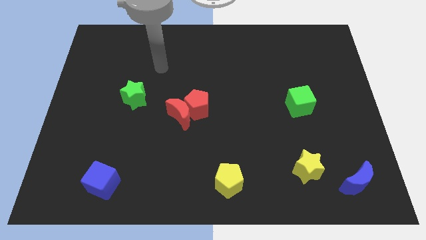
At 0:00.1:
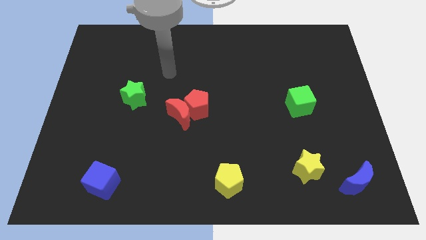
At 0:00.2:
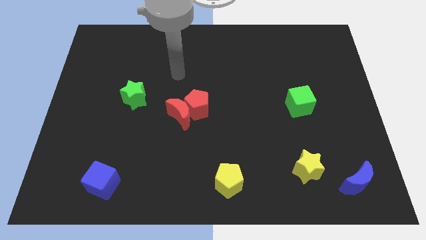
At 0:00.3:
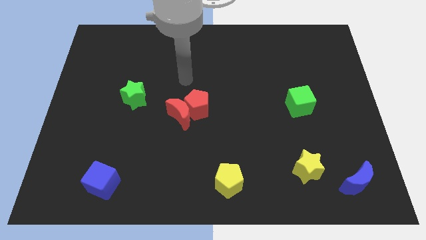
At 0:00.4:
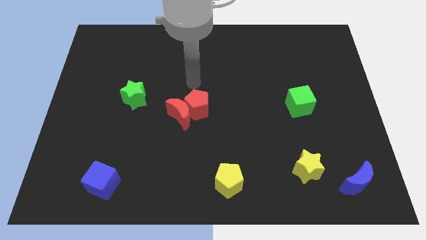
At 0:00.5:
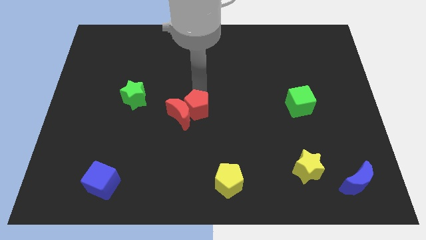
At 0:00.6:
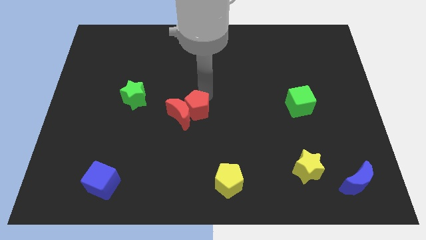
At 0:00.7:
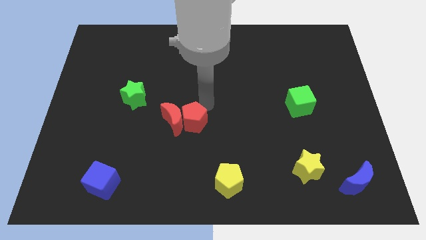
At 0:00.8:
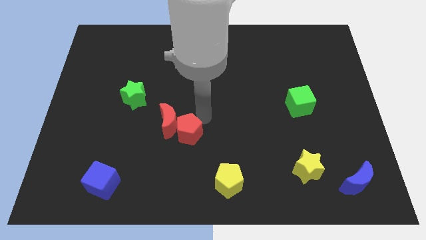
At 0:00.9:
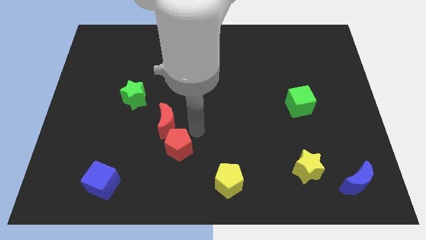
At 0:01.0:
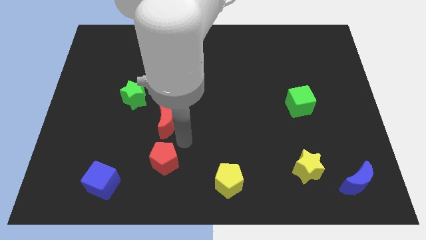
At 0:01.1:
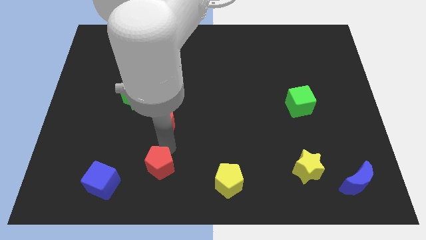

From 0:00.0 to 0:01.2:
separate the red moon from the red pentagon

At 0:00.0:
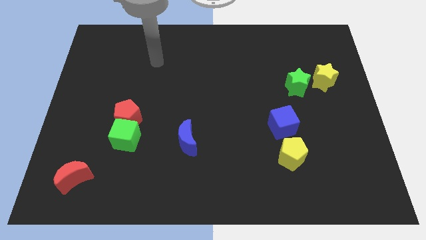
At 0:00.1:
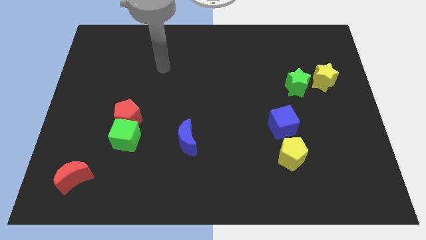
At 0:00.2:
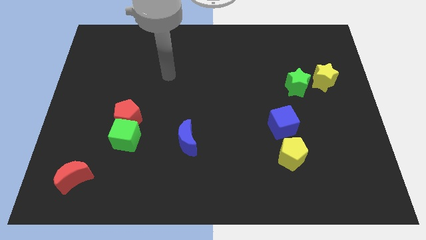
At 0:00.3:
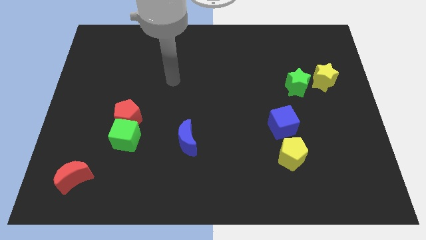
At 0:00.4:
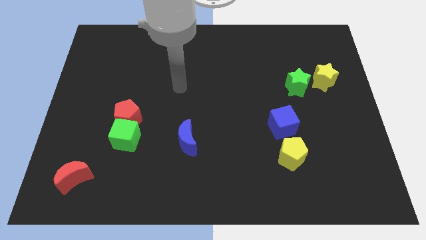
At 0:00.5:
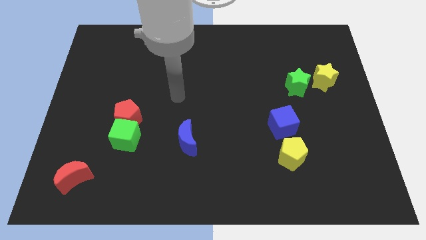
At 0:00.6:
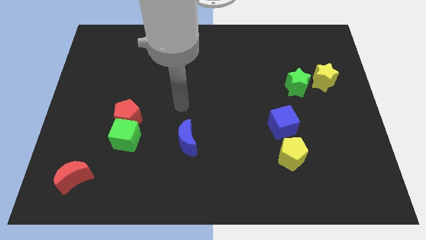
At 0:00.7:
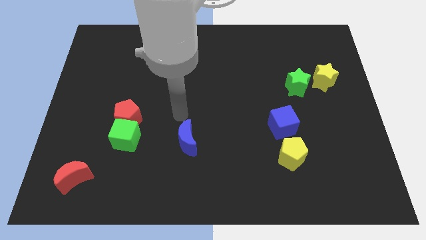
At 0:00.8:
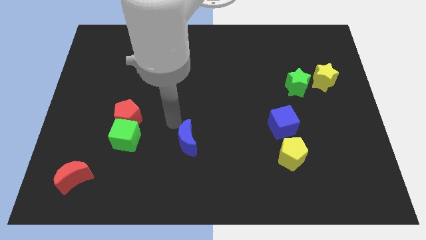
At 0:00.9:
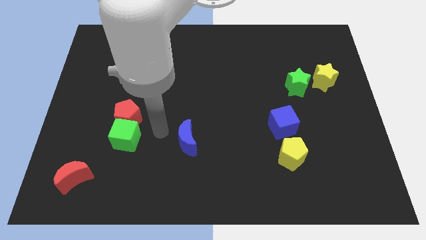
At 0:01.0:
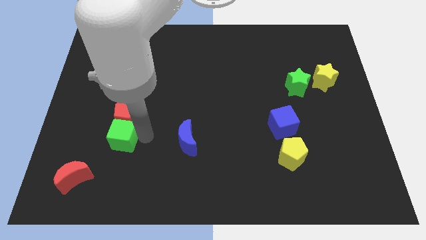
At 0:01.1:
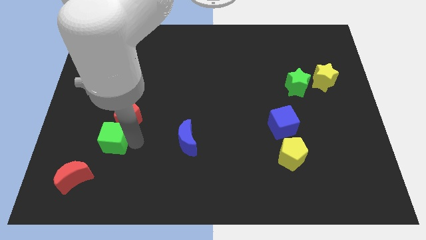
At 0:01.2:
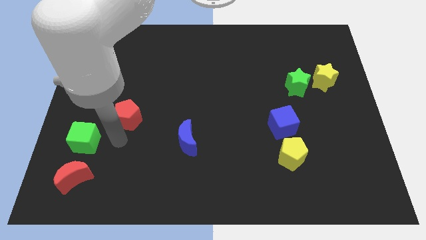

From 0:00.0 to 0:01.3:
separate the red pentagon from the green cube

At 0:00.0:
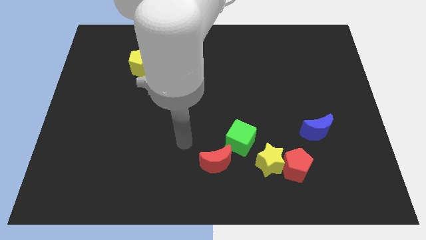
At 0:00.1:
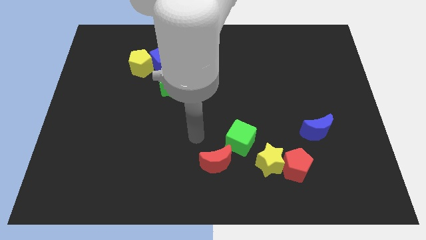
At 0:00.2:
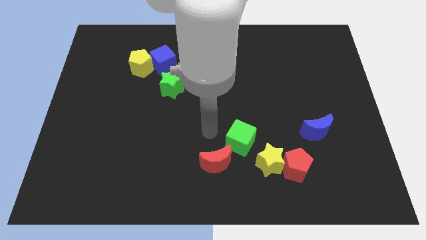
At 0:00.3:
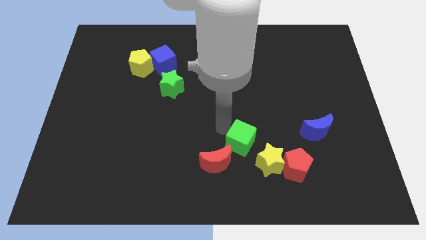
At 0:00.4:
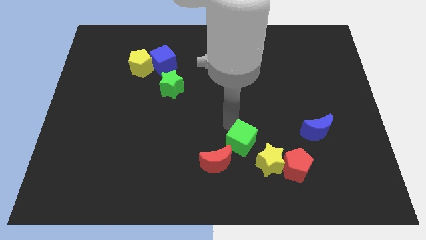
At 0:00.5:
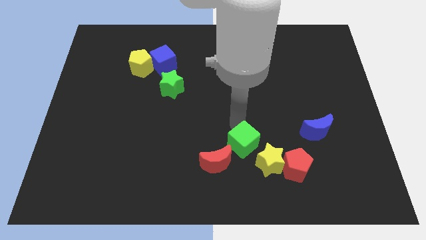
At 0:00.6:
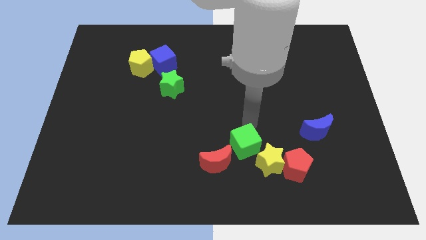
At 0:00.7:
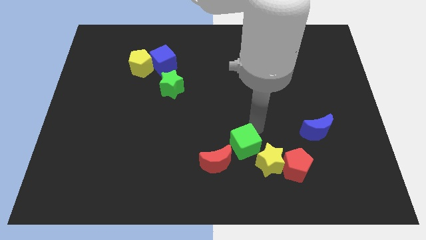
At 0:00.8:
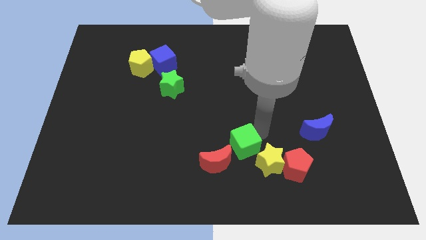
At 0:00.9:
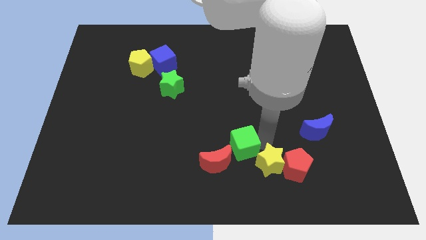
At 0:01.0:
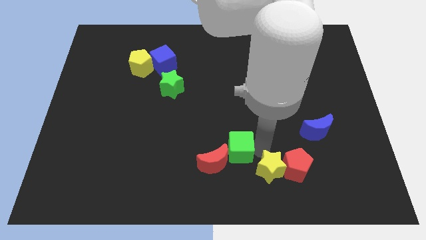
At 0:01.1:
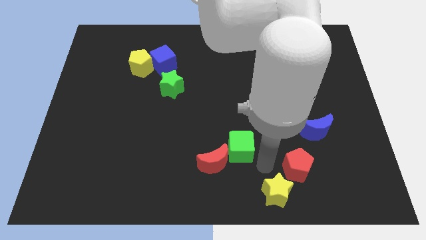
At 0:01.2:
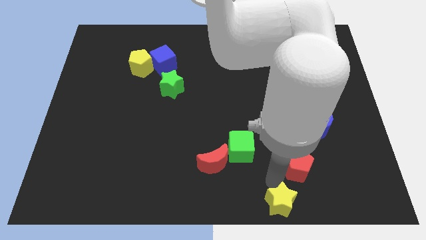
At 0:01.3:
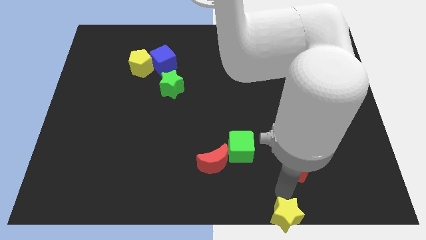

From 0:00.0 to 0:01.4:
separate the red pentagon from the yellow star

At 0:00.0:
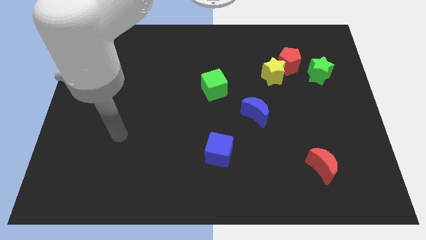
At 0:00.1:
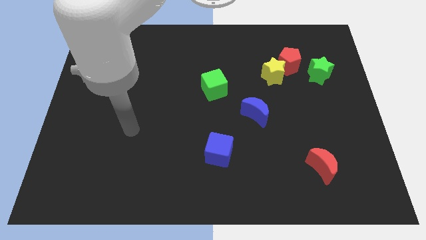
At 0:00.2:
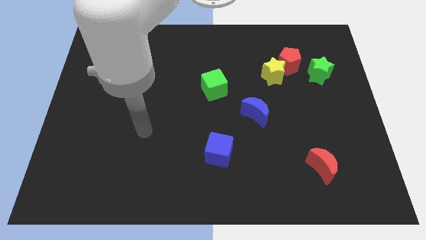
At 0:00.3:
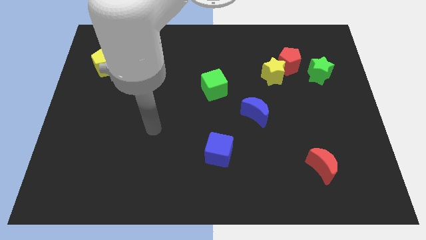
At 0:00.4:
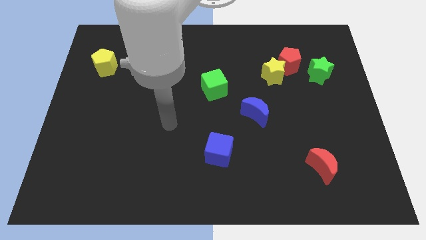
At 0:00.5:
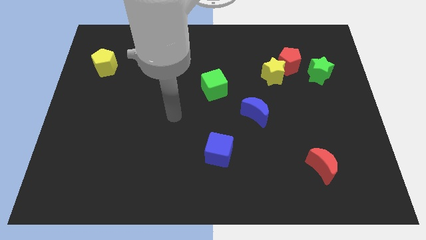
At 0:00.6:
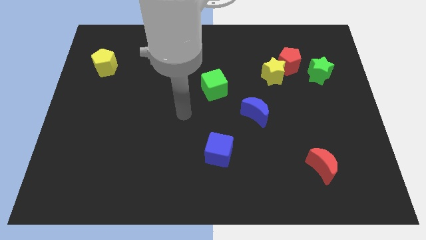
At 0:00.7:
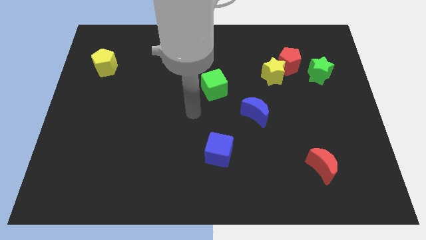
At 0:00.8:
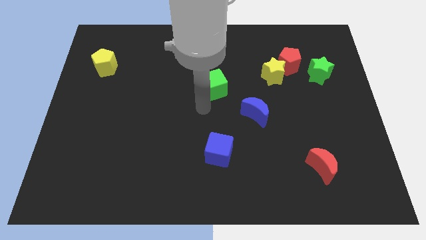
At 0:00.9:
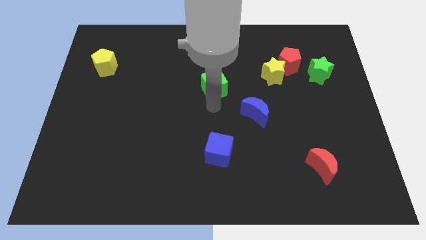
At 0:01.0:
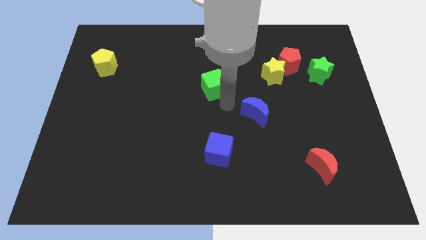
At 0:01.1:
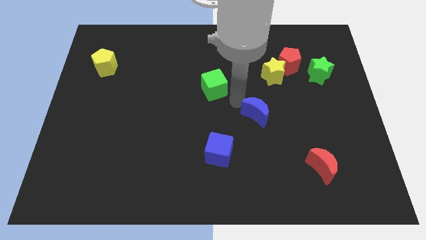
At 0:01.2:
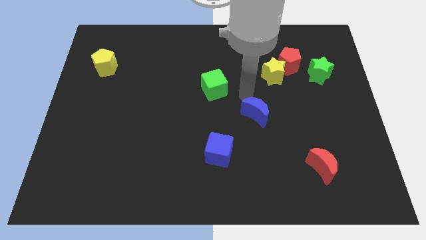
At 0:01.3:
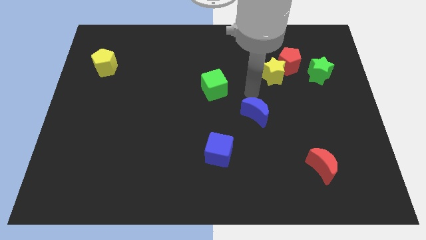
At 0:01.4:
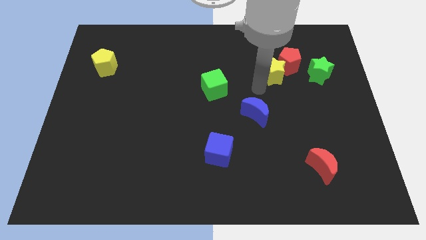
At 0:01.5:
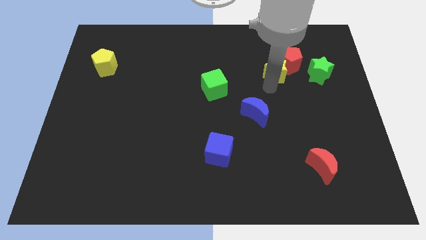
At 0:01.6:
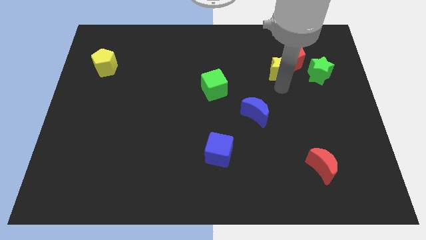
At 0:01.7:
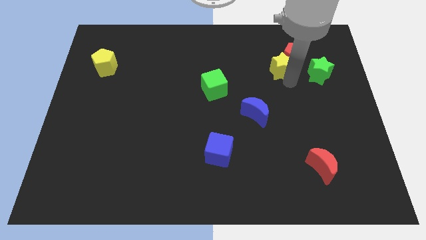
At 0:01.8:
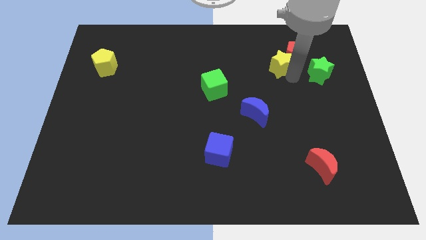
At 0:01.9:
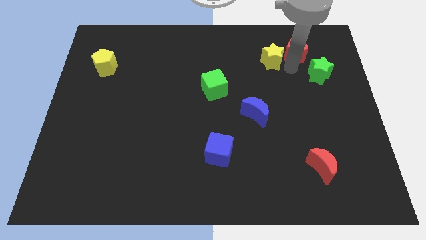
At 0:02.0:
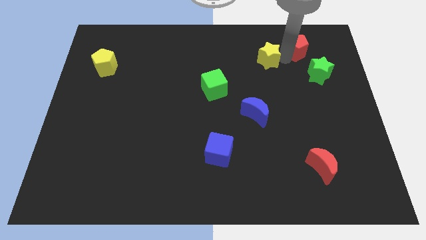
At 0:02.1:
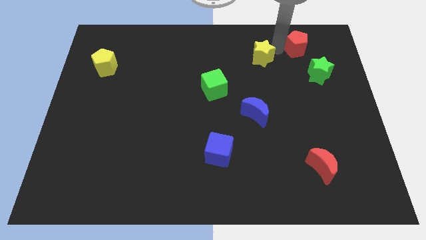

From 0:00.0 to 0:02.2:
move the yellow star away from the red pentagon

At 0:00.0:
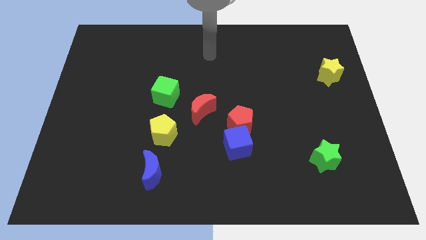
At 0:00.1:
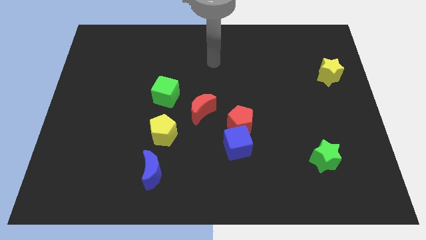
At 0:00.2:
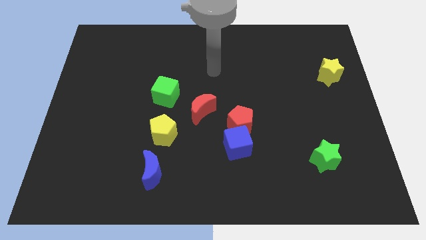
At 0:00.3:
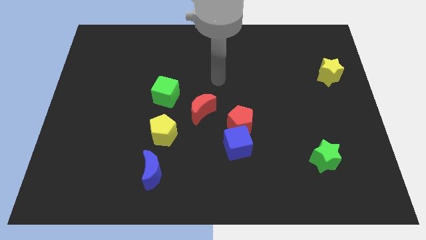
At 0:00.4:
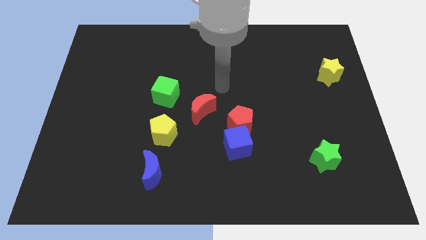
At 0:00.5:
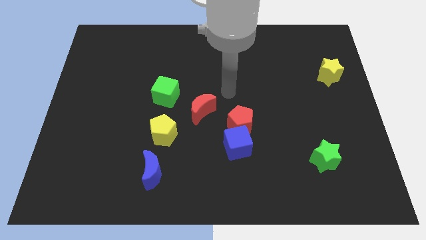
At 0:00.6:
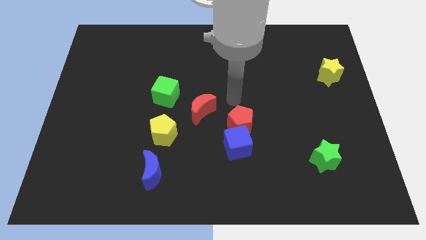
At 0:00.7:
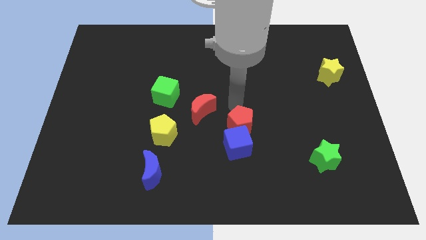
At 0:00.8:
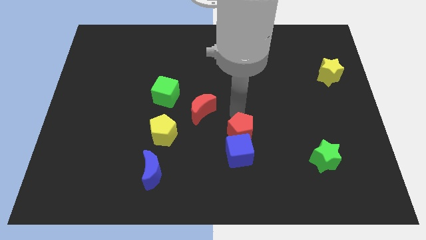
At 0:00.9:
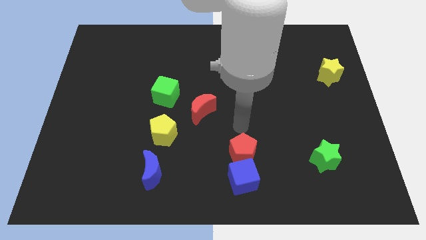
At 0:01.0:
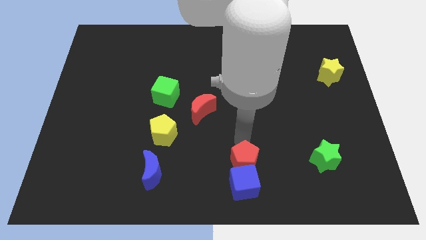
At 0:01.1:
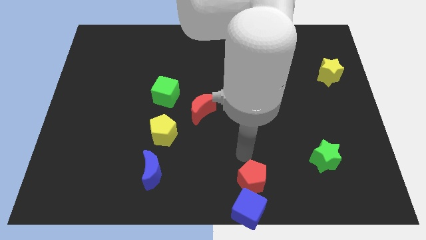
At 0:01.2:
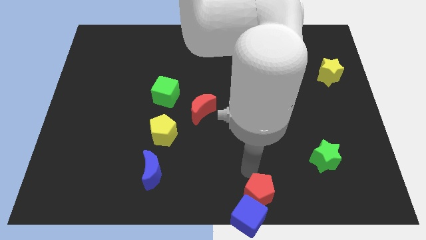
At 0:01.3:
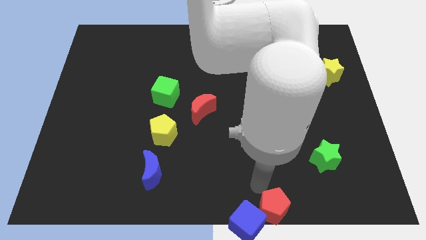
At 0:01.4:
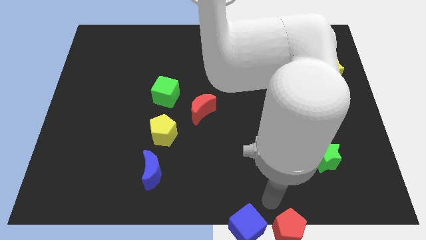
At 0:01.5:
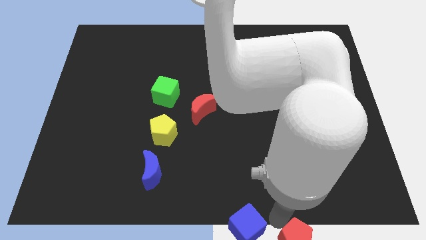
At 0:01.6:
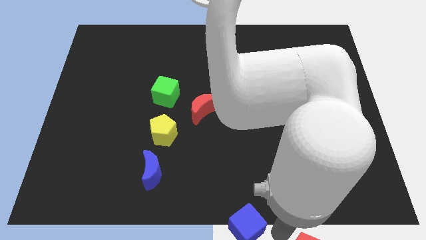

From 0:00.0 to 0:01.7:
pull the blue cube apart from the red pentagon

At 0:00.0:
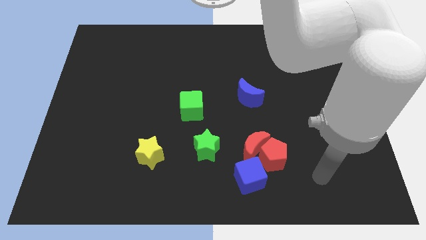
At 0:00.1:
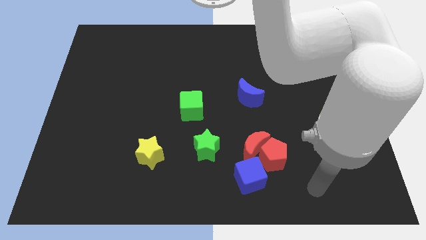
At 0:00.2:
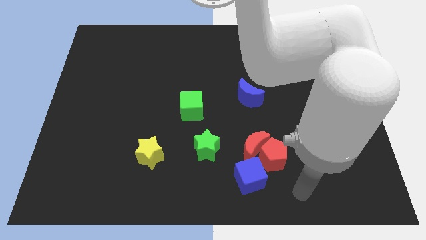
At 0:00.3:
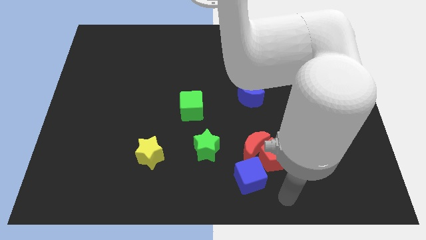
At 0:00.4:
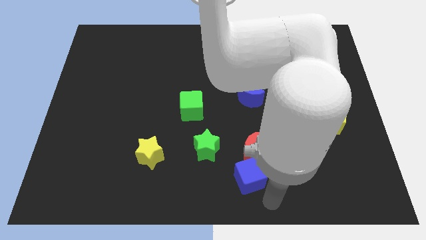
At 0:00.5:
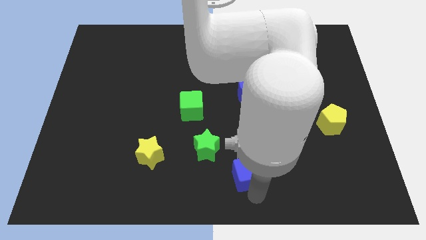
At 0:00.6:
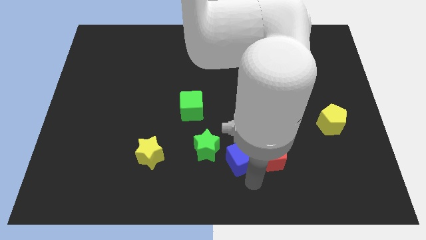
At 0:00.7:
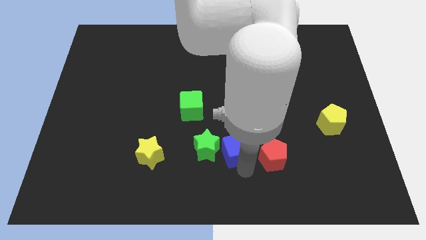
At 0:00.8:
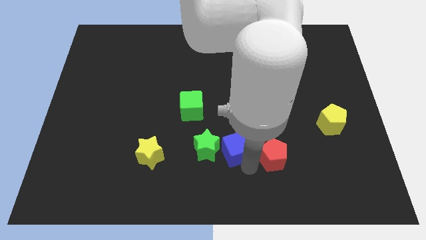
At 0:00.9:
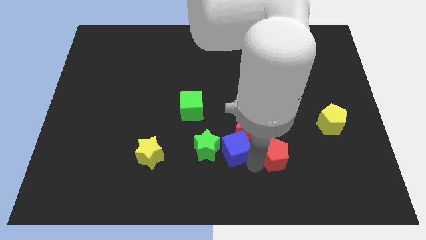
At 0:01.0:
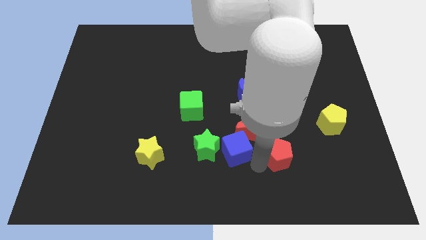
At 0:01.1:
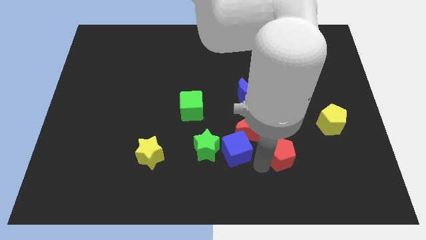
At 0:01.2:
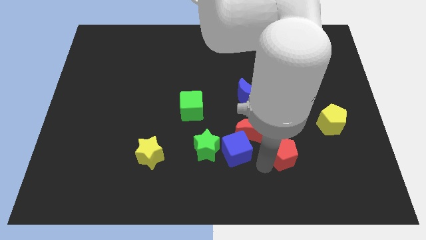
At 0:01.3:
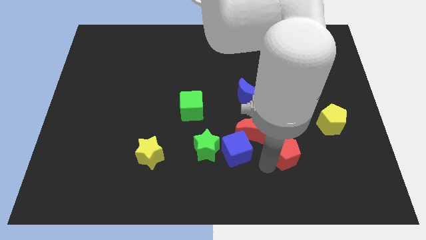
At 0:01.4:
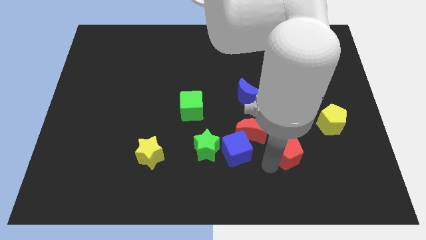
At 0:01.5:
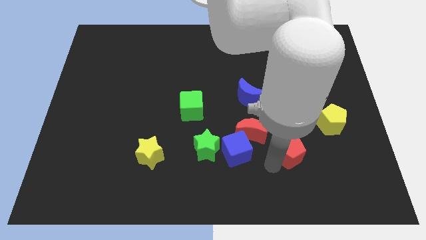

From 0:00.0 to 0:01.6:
separate the red pentagon from the red moon and blue cube
